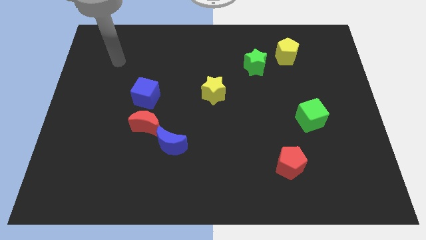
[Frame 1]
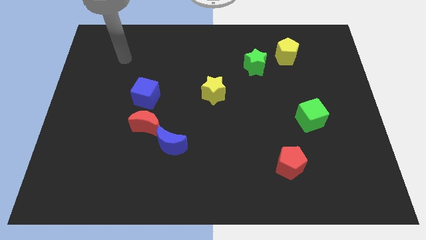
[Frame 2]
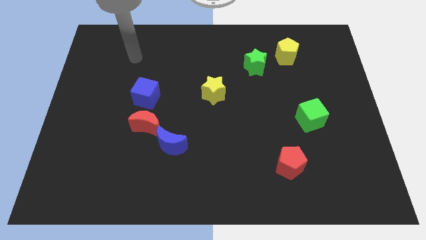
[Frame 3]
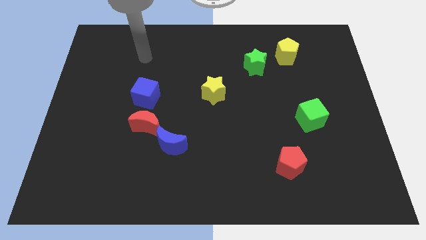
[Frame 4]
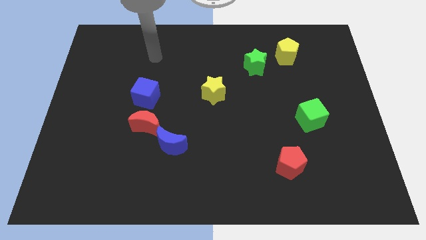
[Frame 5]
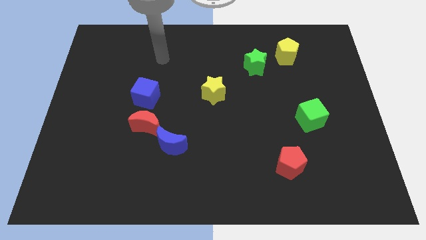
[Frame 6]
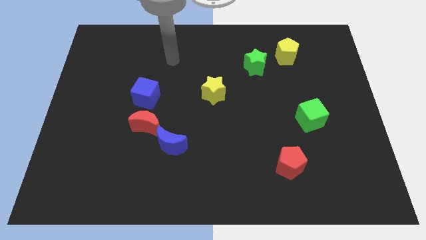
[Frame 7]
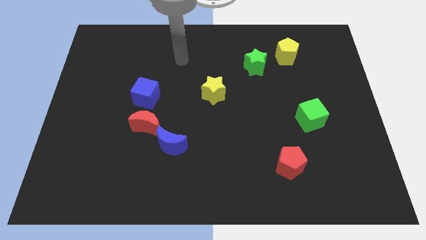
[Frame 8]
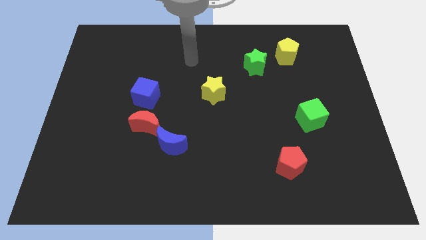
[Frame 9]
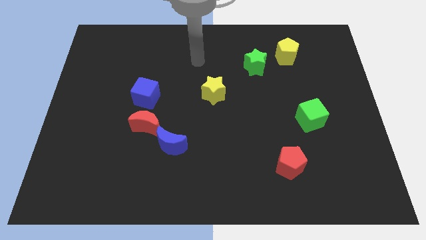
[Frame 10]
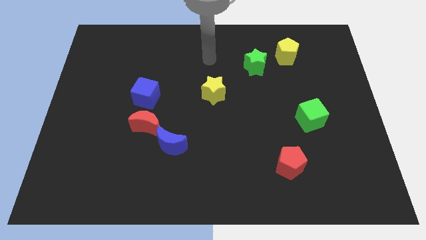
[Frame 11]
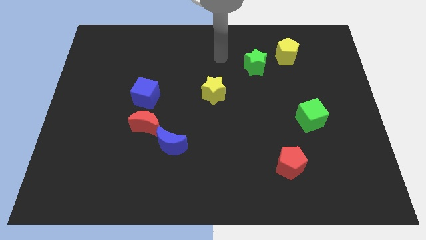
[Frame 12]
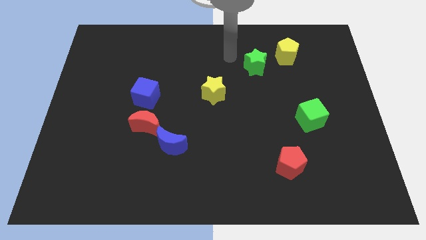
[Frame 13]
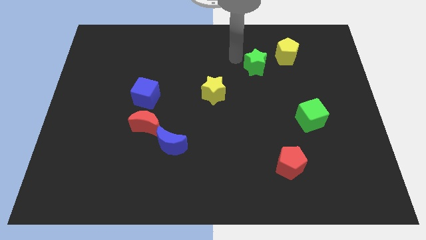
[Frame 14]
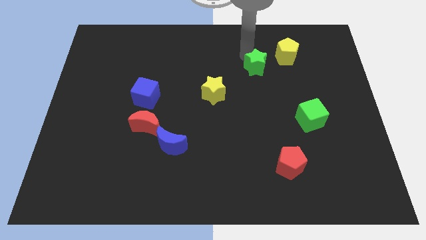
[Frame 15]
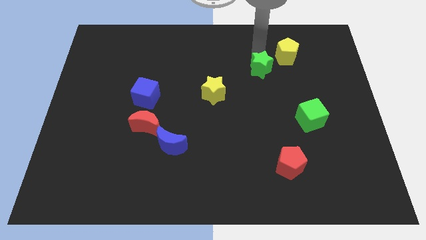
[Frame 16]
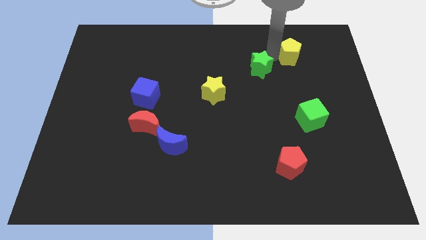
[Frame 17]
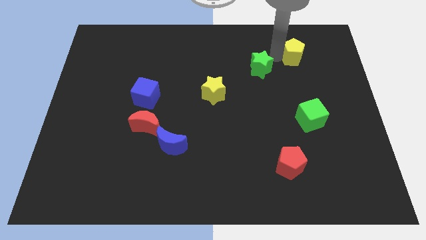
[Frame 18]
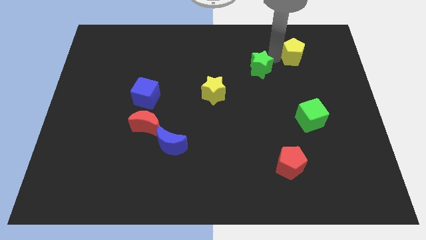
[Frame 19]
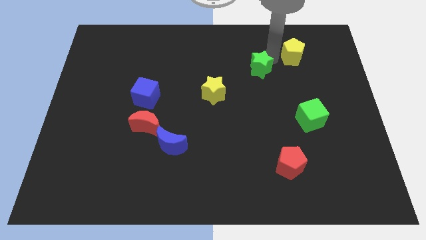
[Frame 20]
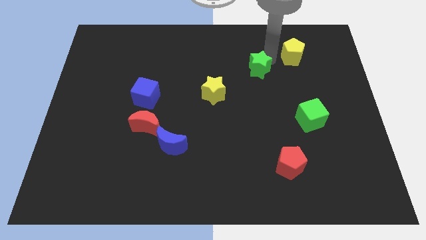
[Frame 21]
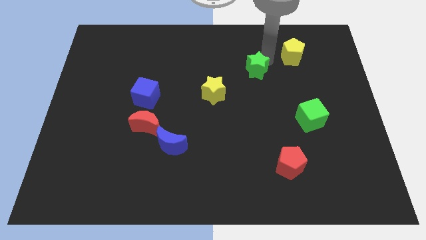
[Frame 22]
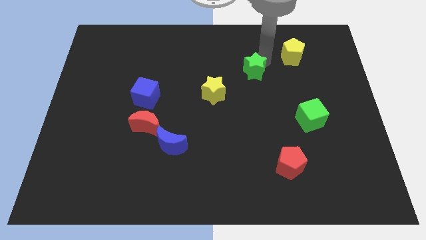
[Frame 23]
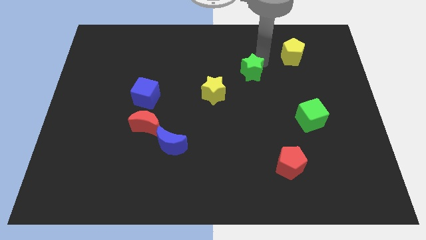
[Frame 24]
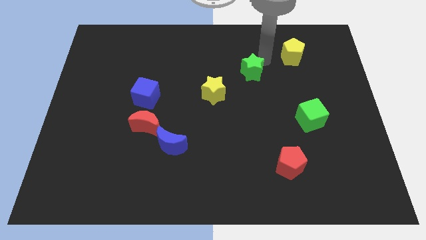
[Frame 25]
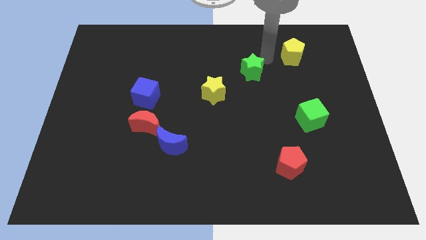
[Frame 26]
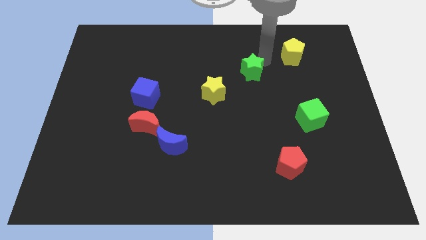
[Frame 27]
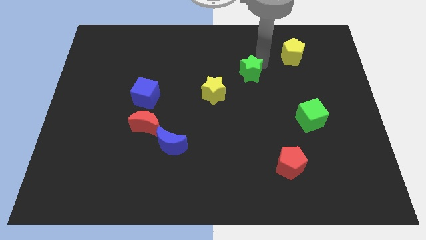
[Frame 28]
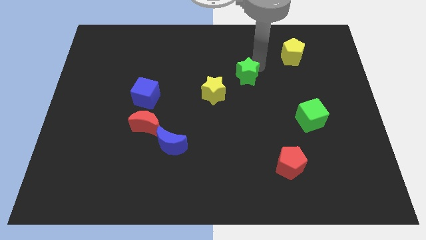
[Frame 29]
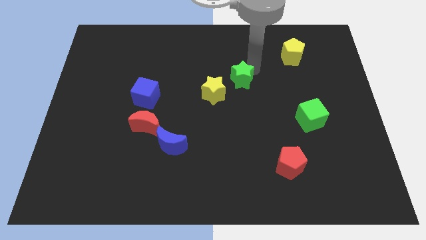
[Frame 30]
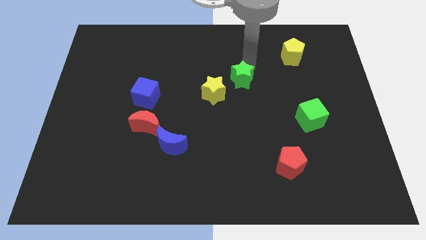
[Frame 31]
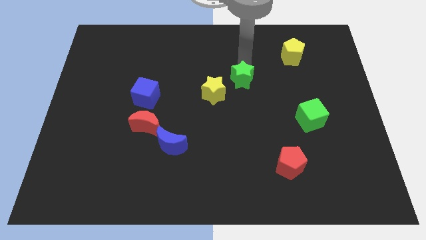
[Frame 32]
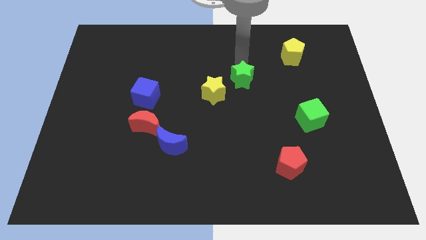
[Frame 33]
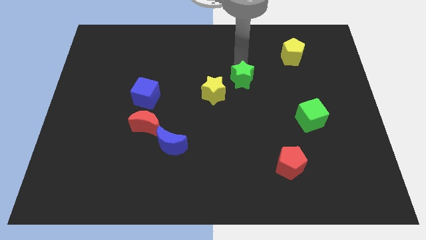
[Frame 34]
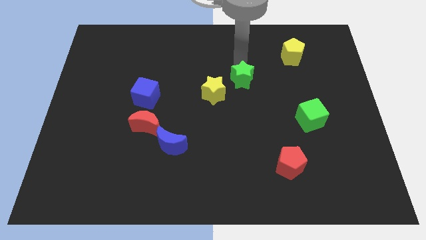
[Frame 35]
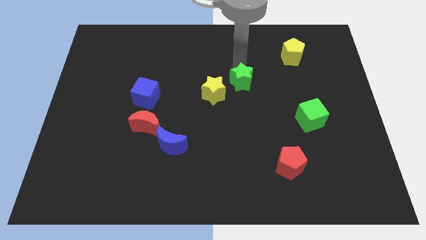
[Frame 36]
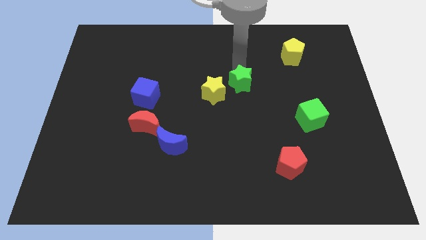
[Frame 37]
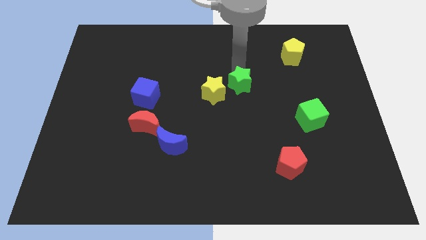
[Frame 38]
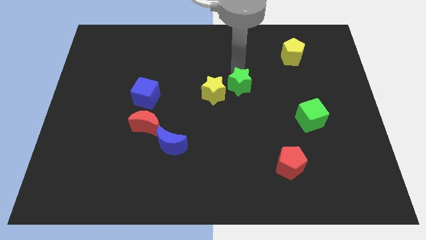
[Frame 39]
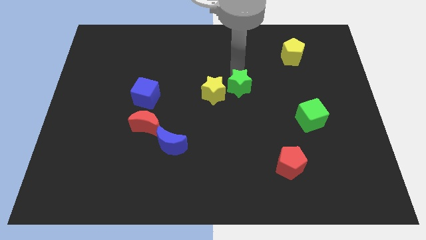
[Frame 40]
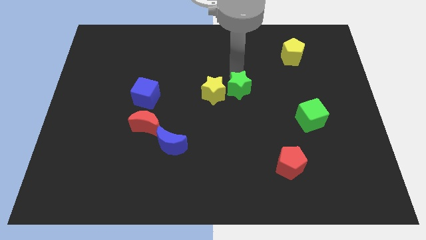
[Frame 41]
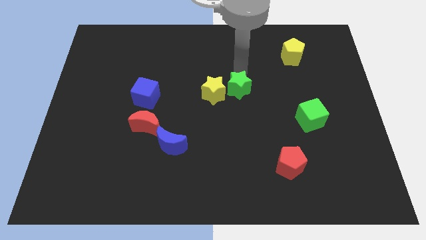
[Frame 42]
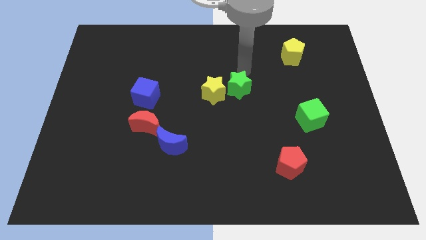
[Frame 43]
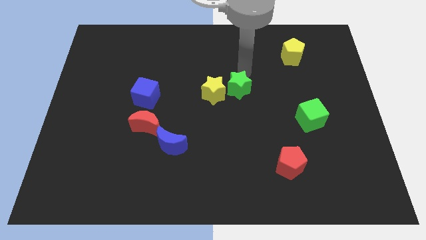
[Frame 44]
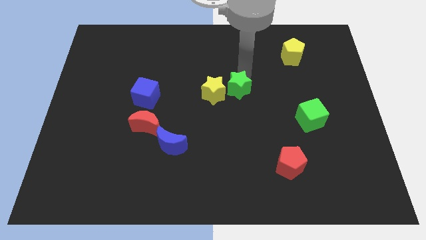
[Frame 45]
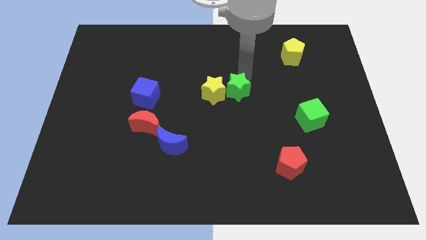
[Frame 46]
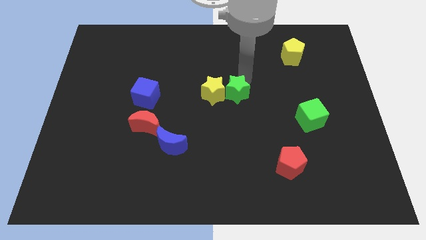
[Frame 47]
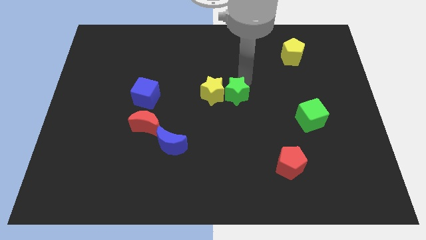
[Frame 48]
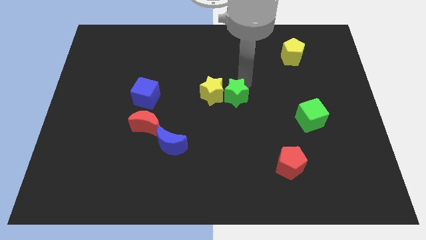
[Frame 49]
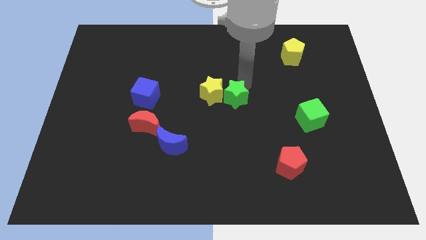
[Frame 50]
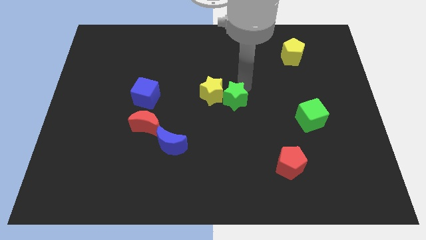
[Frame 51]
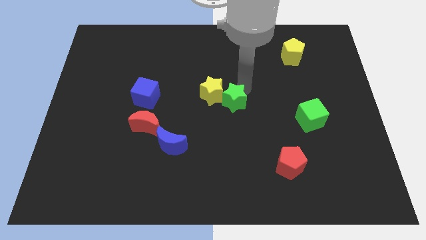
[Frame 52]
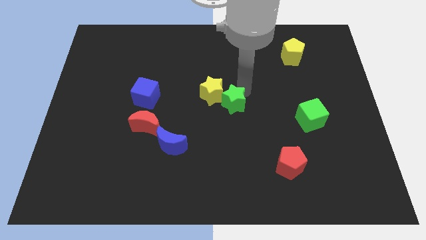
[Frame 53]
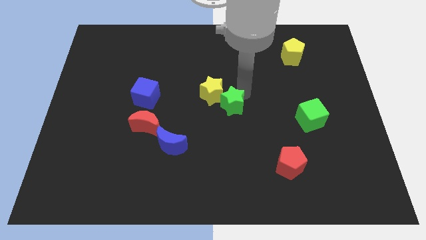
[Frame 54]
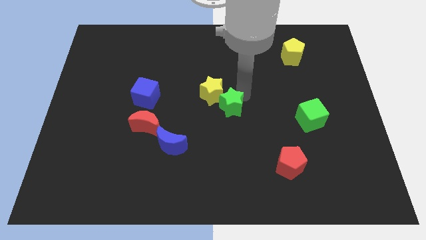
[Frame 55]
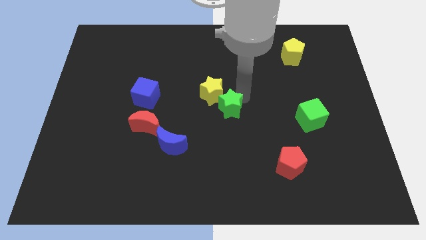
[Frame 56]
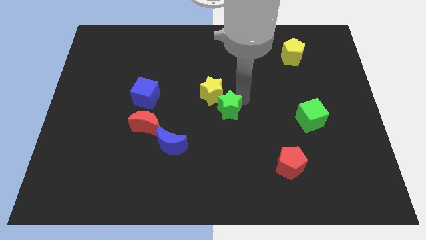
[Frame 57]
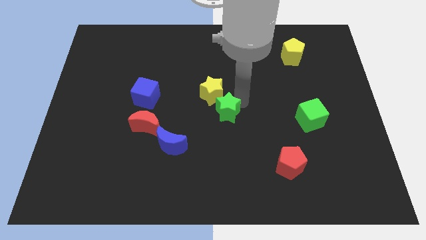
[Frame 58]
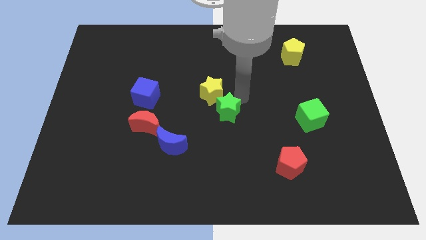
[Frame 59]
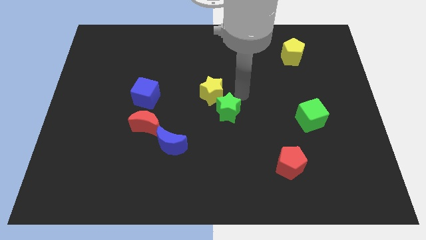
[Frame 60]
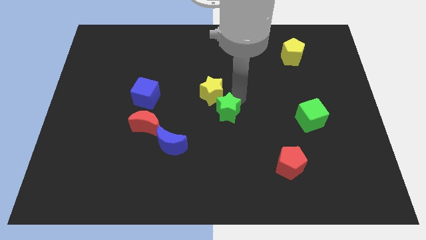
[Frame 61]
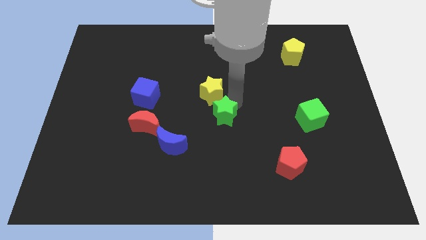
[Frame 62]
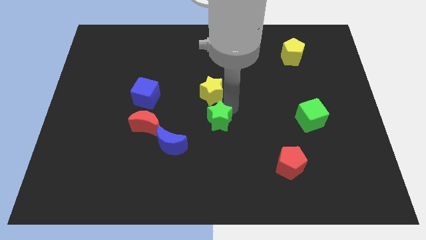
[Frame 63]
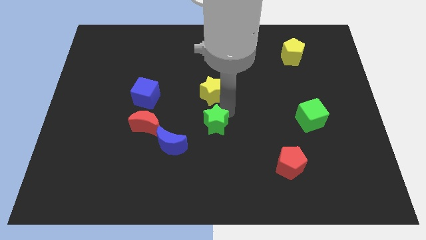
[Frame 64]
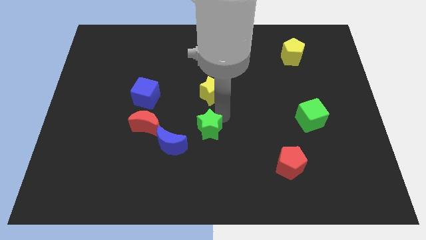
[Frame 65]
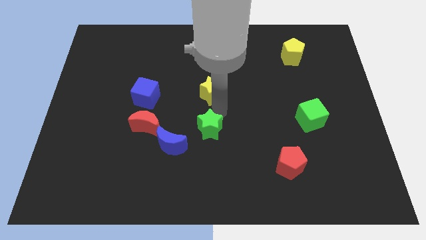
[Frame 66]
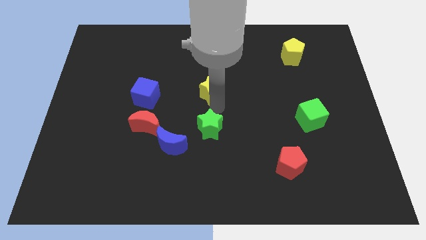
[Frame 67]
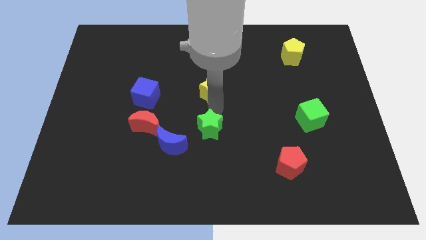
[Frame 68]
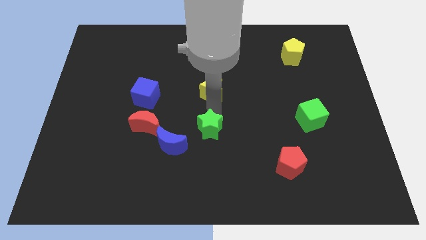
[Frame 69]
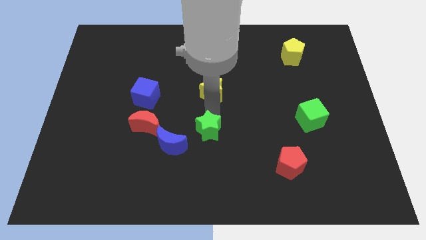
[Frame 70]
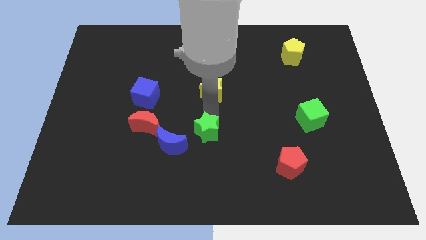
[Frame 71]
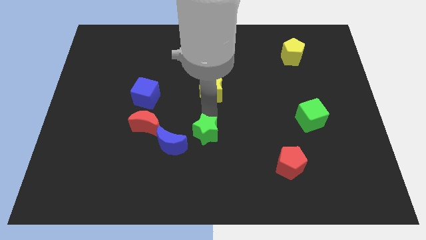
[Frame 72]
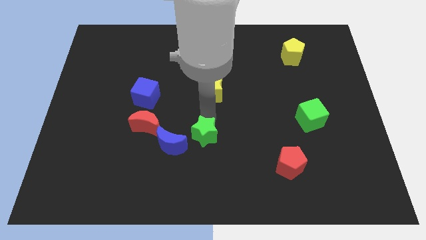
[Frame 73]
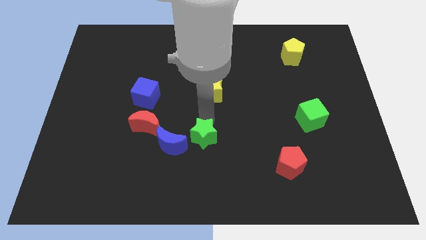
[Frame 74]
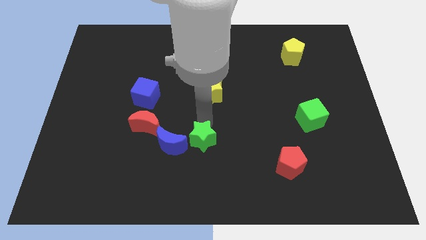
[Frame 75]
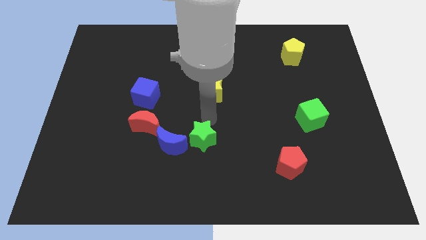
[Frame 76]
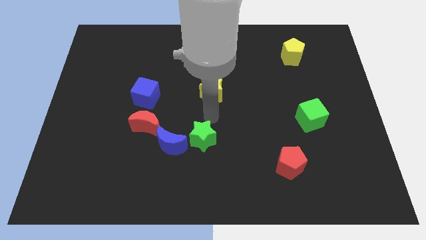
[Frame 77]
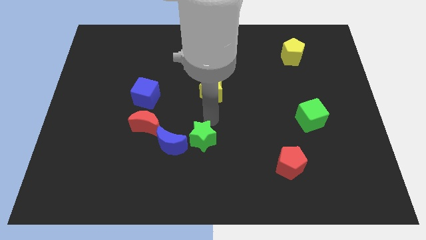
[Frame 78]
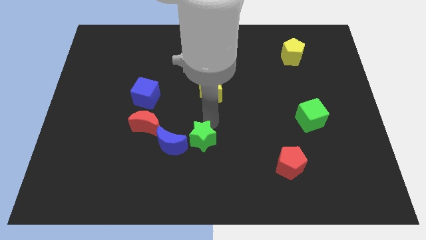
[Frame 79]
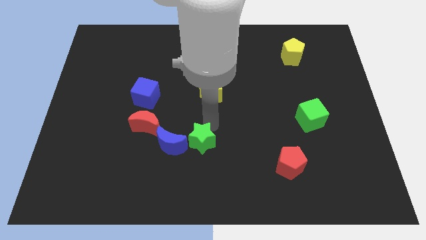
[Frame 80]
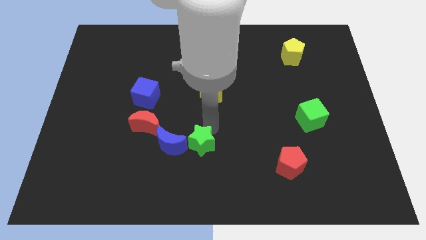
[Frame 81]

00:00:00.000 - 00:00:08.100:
push the green star to the bottom right side of the blue moon
